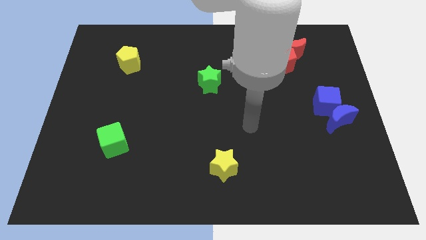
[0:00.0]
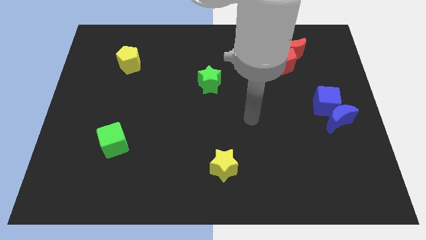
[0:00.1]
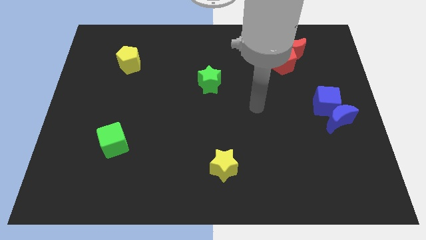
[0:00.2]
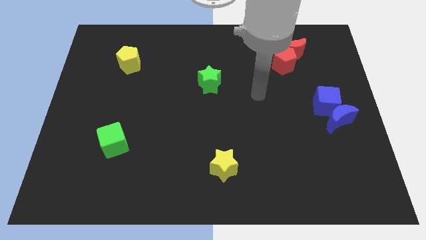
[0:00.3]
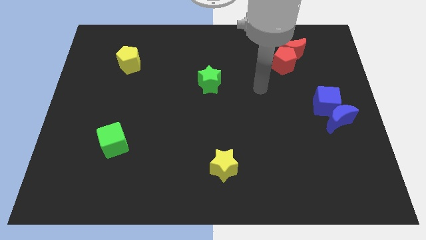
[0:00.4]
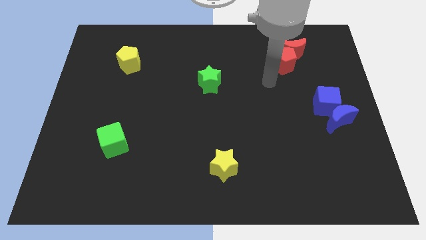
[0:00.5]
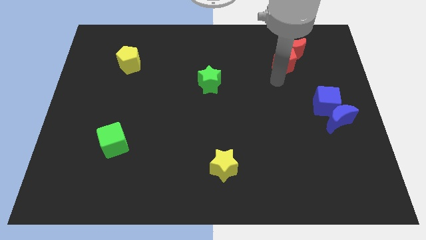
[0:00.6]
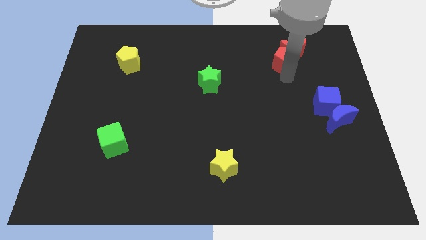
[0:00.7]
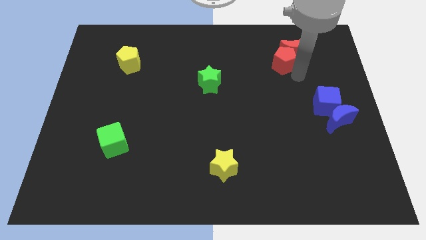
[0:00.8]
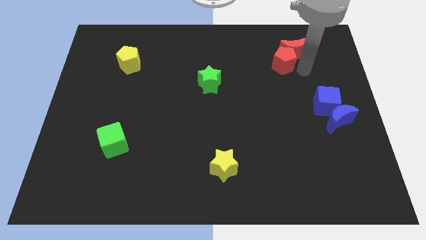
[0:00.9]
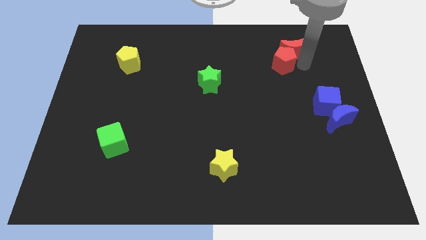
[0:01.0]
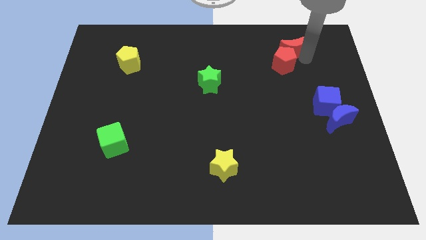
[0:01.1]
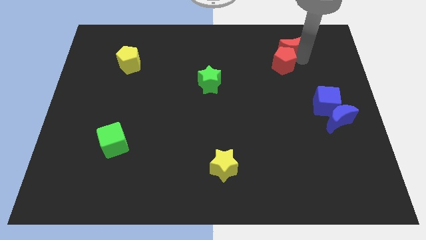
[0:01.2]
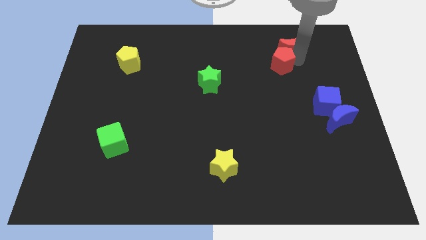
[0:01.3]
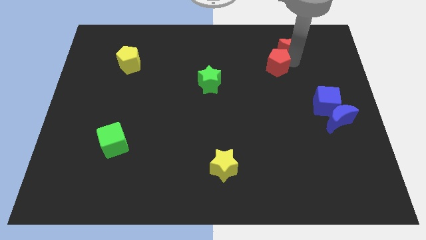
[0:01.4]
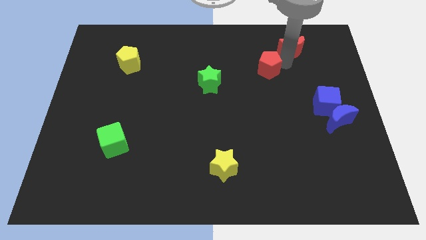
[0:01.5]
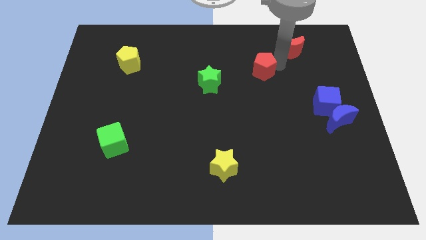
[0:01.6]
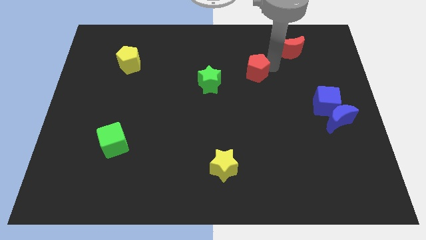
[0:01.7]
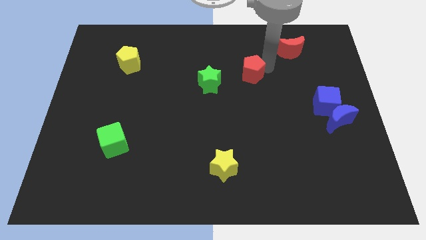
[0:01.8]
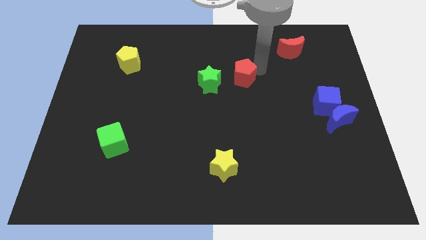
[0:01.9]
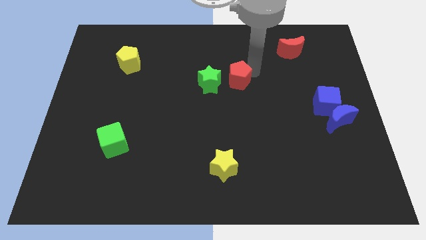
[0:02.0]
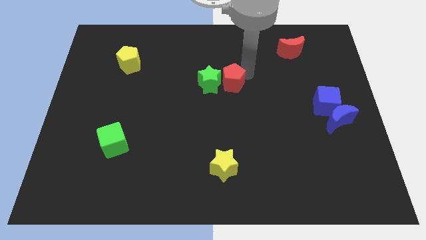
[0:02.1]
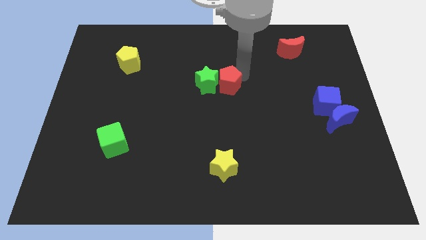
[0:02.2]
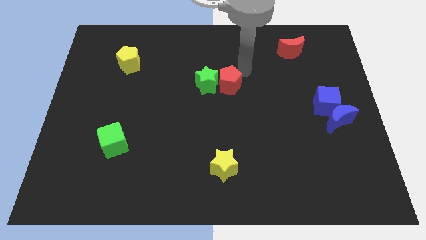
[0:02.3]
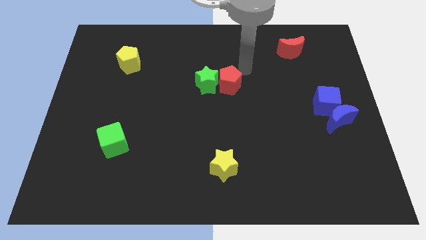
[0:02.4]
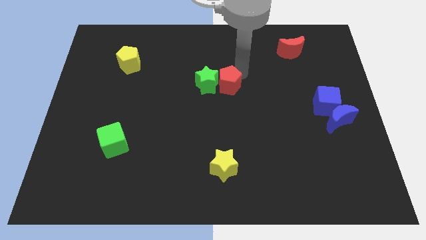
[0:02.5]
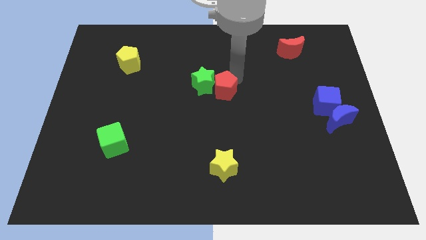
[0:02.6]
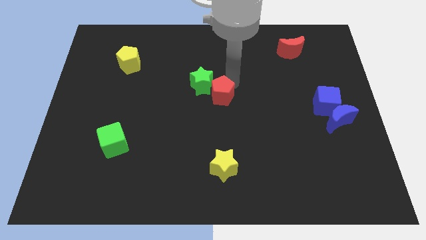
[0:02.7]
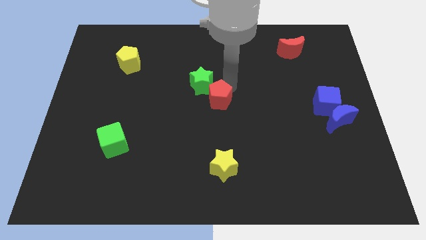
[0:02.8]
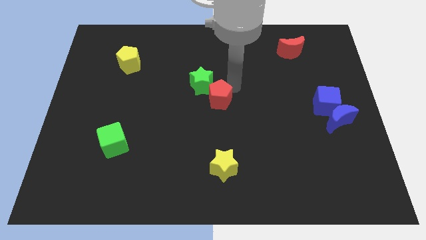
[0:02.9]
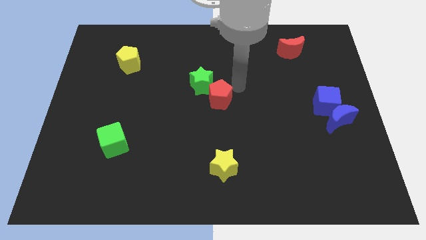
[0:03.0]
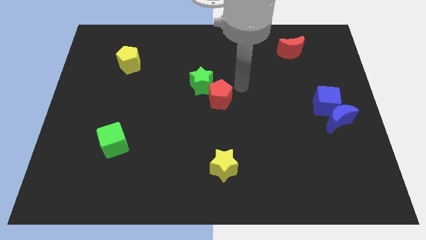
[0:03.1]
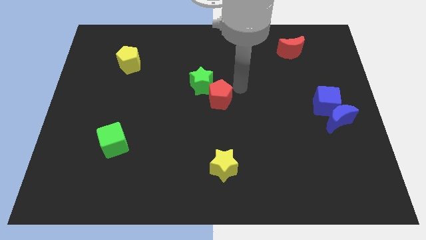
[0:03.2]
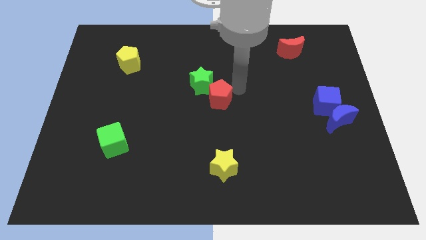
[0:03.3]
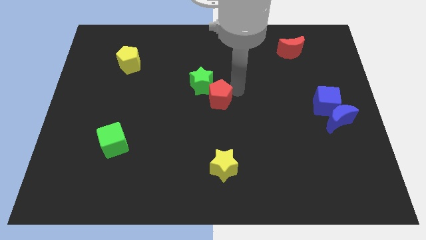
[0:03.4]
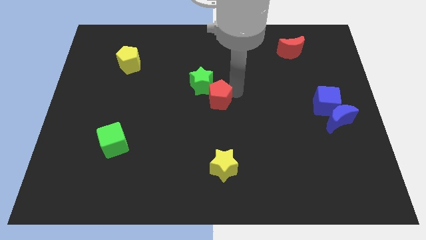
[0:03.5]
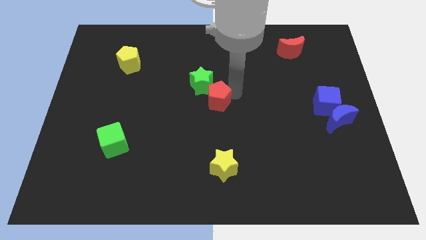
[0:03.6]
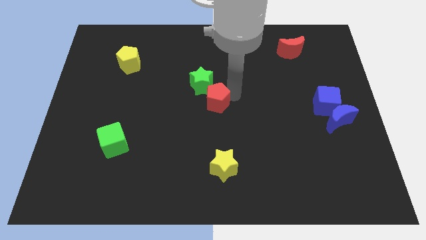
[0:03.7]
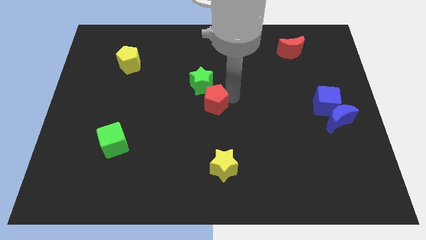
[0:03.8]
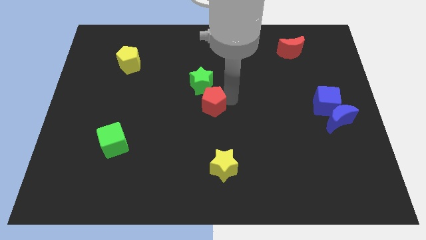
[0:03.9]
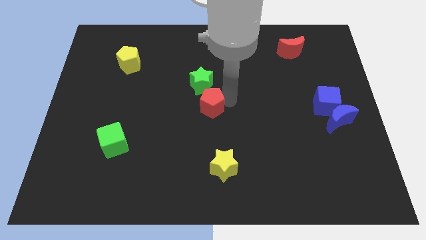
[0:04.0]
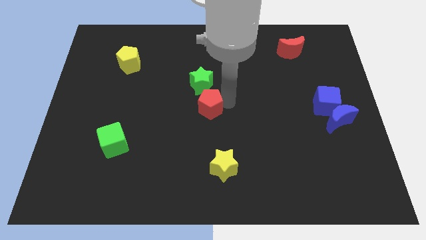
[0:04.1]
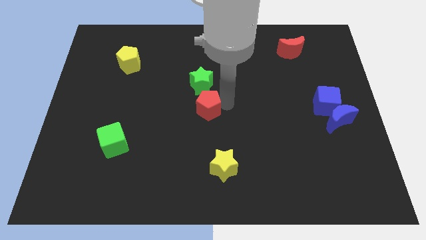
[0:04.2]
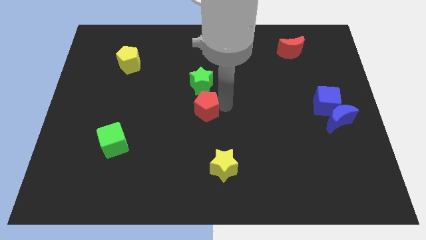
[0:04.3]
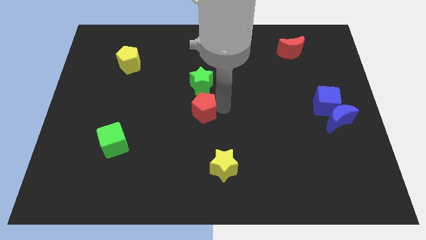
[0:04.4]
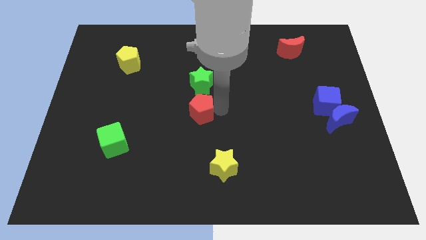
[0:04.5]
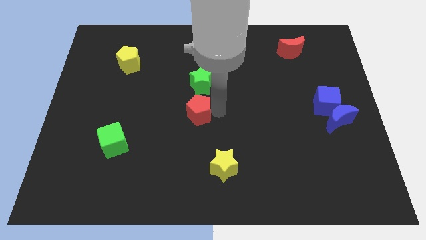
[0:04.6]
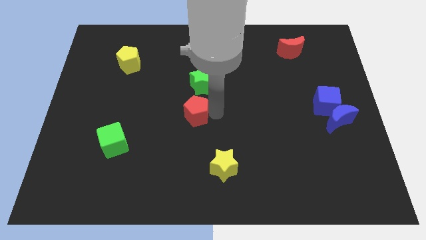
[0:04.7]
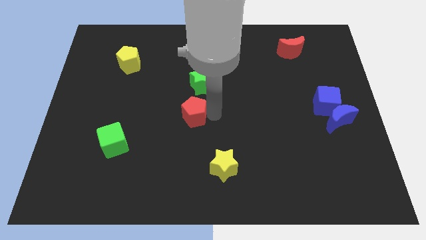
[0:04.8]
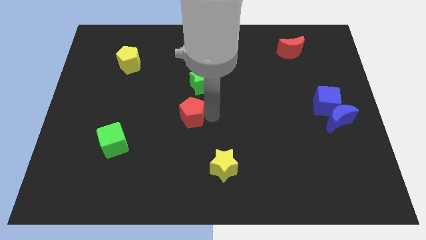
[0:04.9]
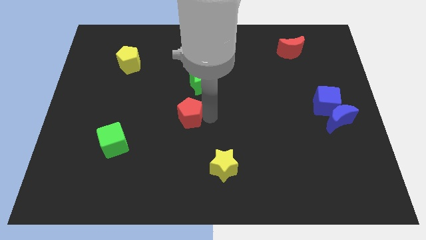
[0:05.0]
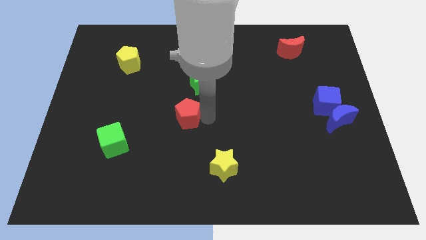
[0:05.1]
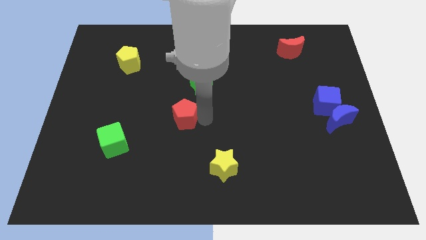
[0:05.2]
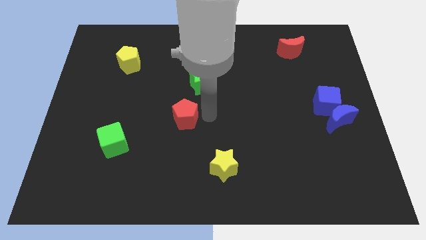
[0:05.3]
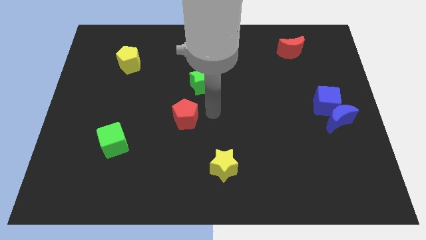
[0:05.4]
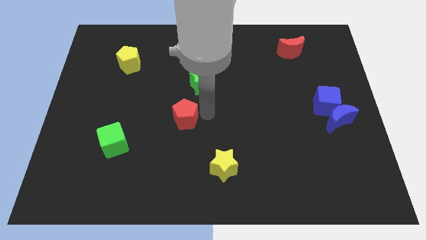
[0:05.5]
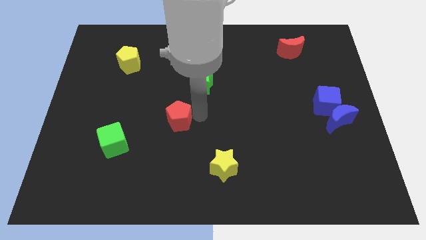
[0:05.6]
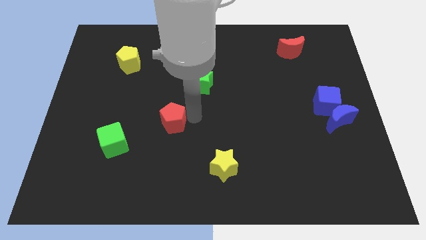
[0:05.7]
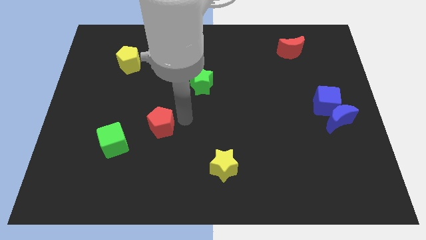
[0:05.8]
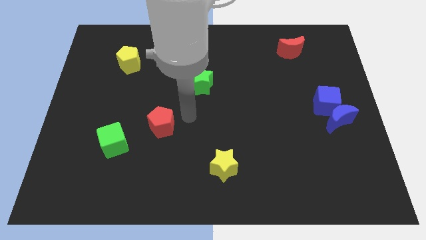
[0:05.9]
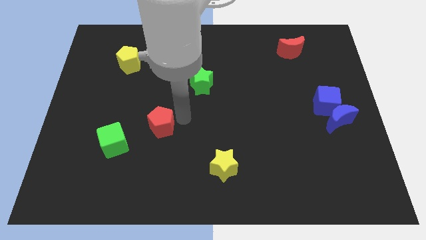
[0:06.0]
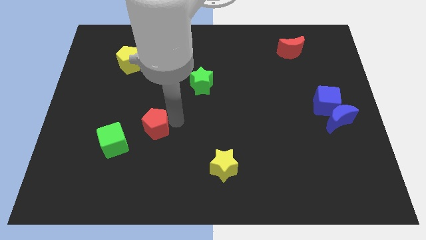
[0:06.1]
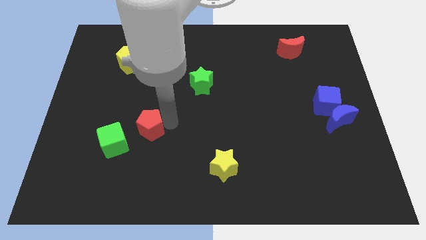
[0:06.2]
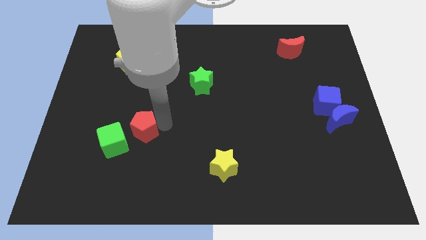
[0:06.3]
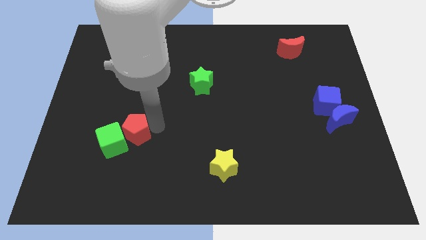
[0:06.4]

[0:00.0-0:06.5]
move the red pentagon towards the green cube

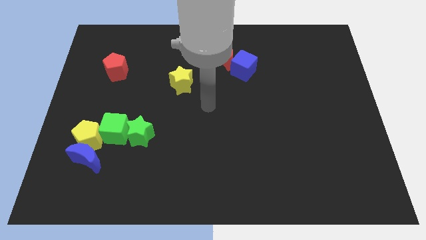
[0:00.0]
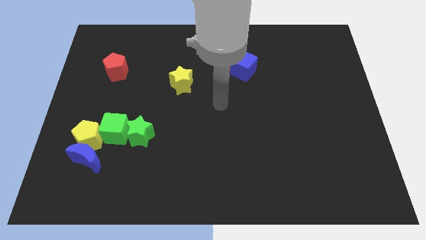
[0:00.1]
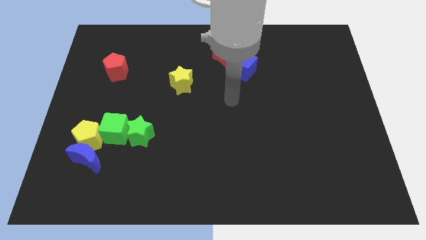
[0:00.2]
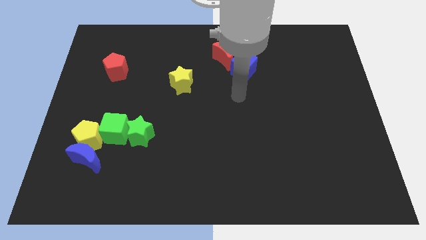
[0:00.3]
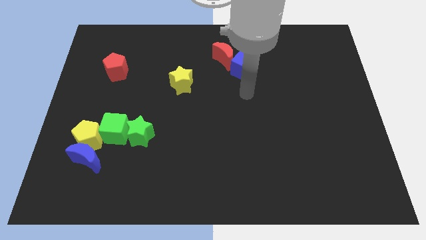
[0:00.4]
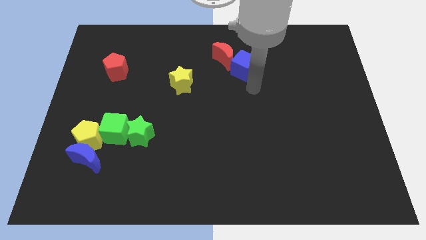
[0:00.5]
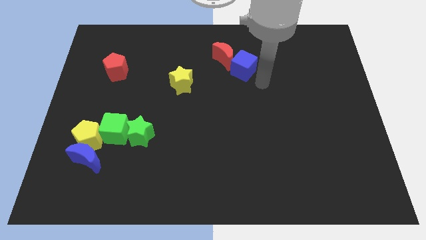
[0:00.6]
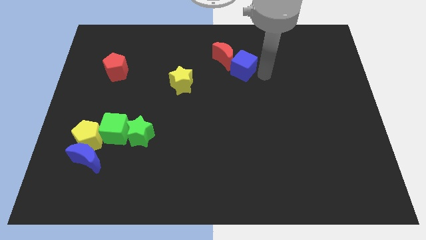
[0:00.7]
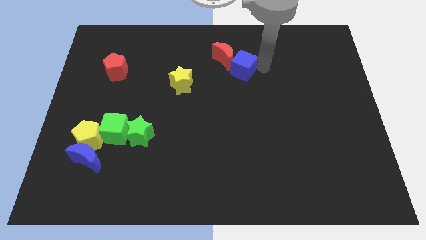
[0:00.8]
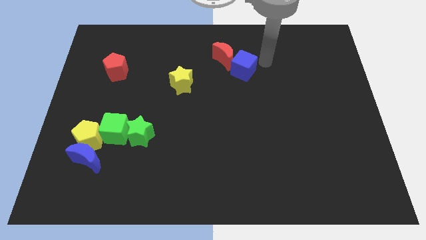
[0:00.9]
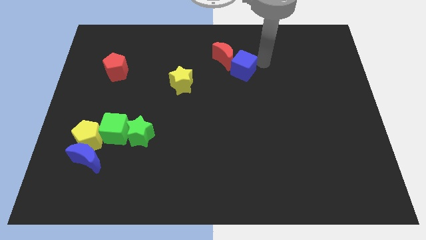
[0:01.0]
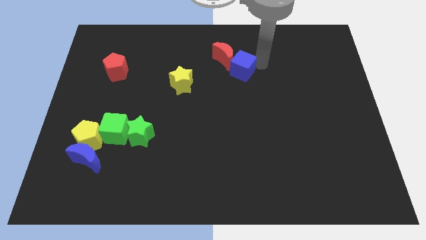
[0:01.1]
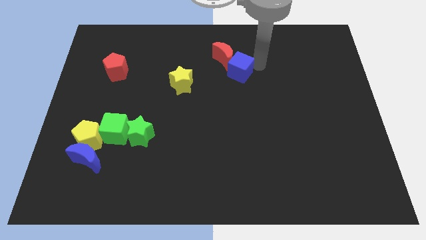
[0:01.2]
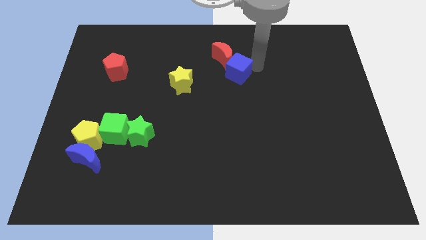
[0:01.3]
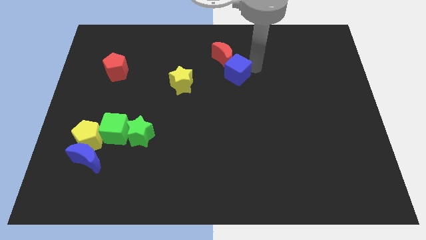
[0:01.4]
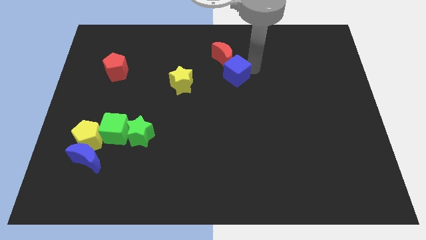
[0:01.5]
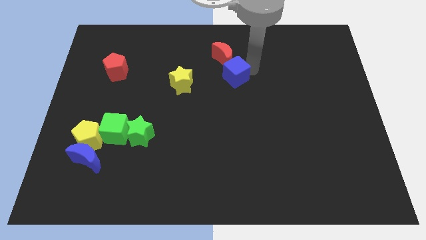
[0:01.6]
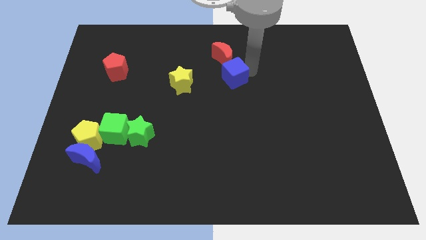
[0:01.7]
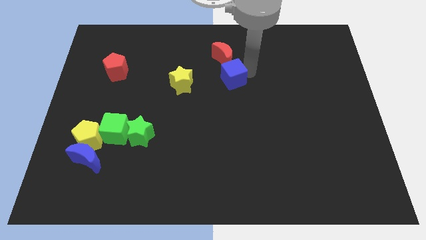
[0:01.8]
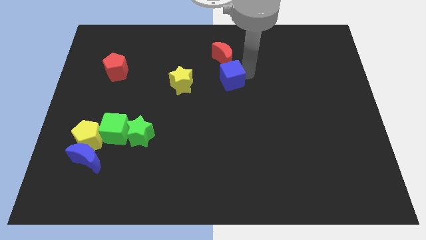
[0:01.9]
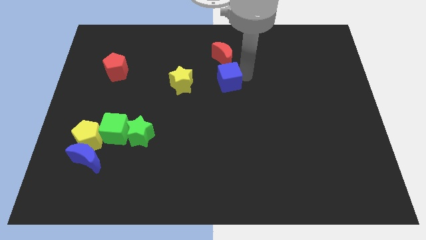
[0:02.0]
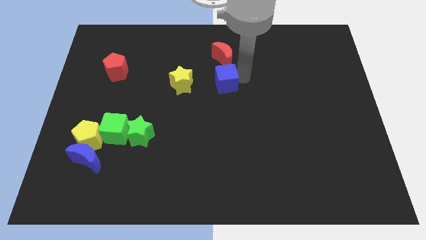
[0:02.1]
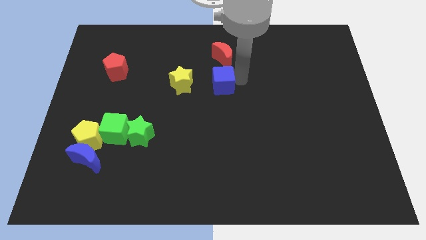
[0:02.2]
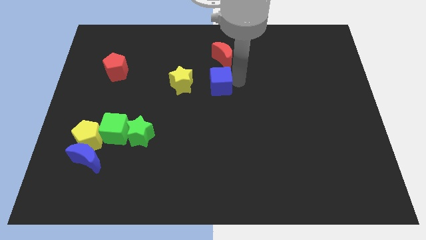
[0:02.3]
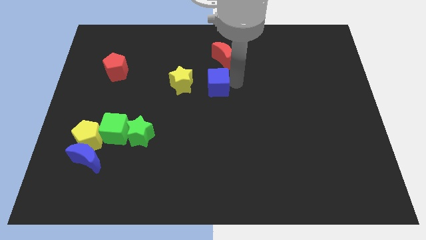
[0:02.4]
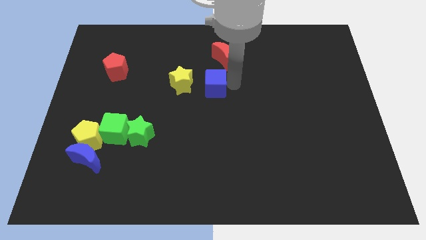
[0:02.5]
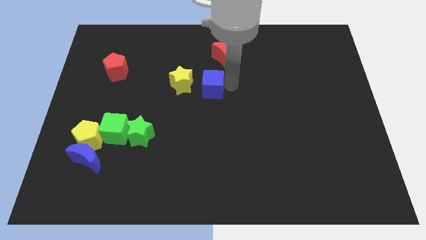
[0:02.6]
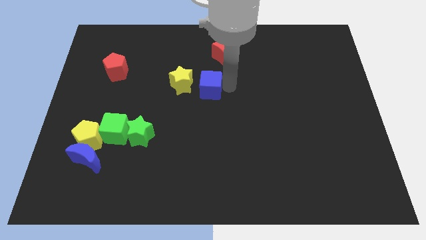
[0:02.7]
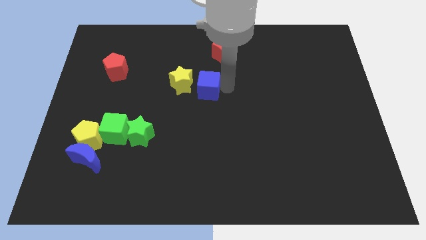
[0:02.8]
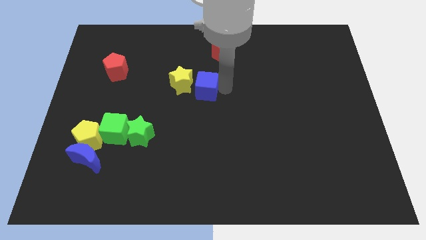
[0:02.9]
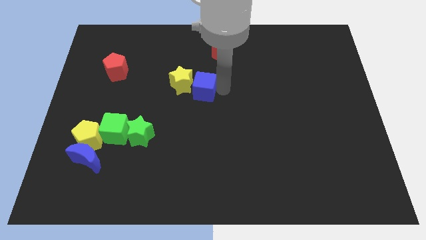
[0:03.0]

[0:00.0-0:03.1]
slide the blue cube towards the yellow star
